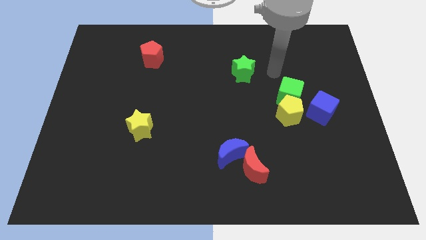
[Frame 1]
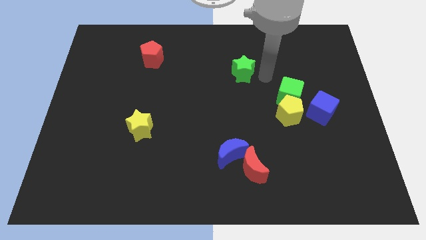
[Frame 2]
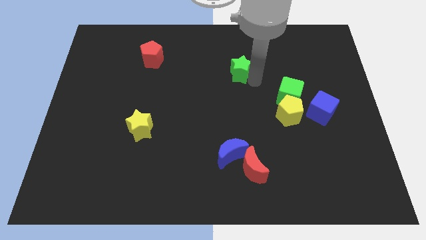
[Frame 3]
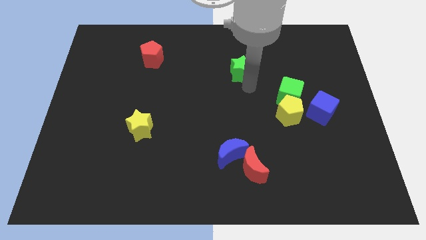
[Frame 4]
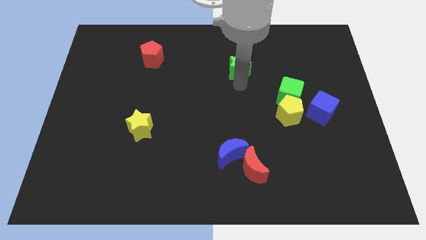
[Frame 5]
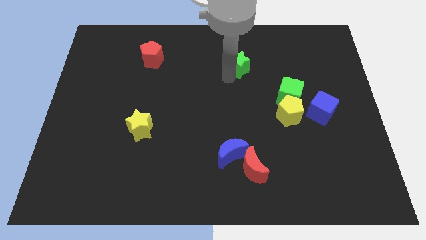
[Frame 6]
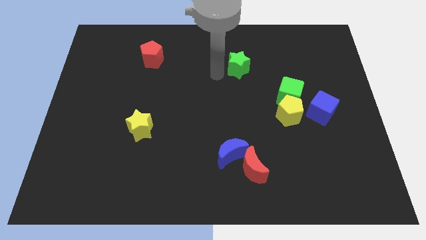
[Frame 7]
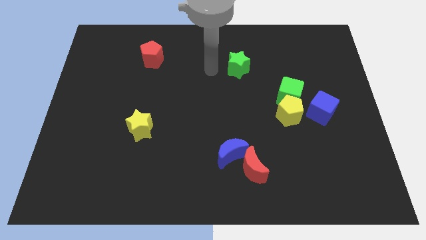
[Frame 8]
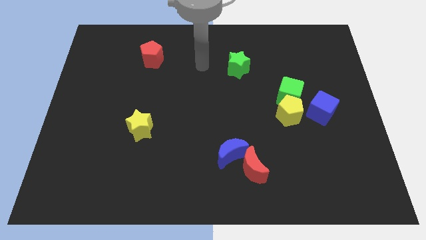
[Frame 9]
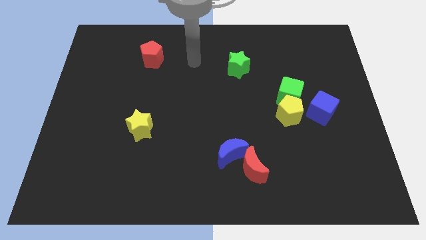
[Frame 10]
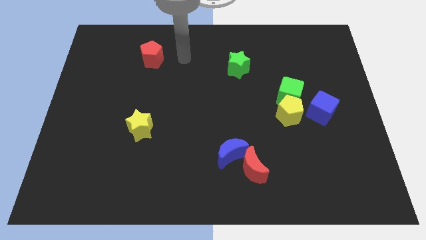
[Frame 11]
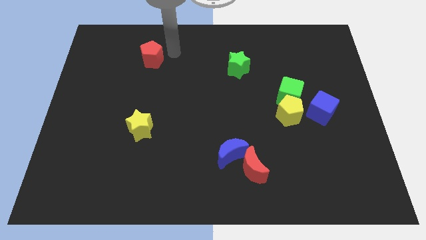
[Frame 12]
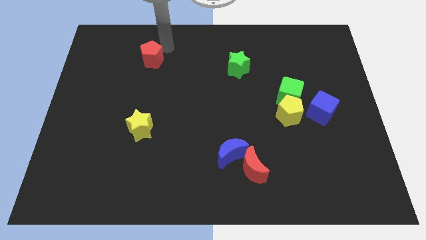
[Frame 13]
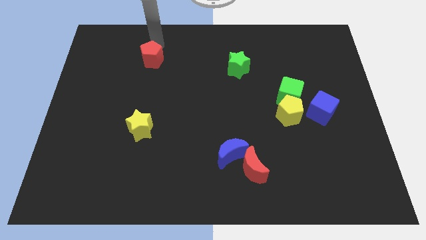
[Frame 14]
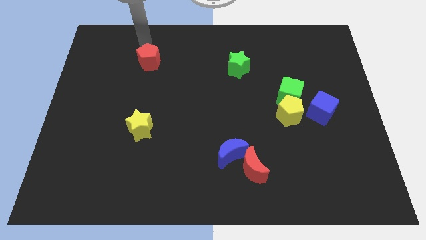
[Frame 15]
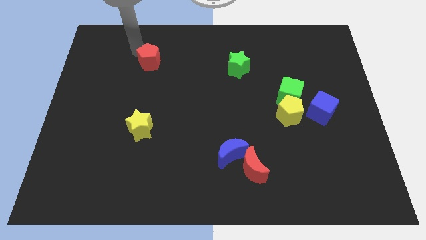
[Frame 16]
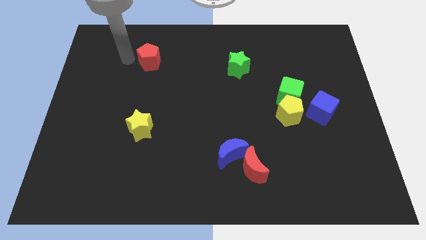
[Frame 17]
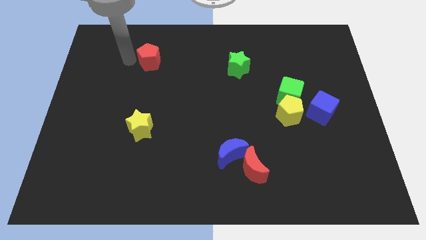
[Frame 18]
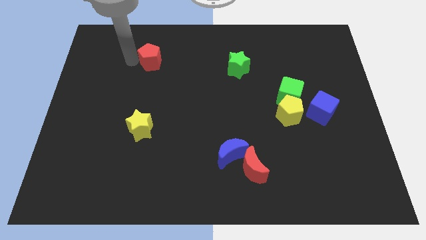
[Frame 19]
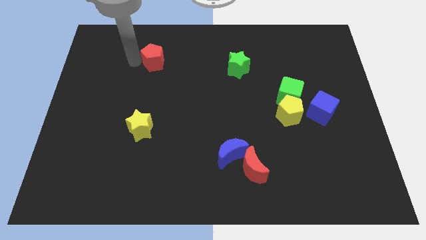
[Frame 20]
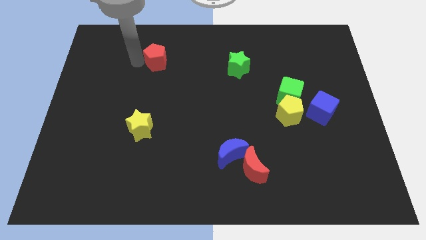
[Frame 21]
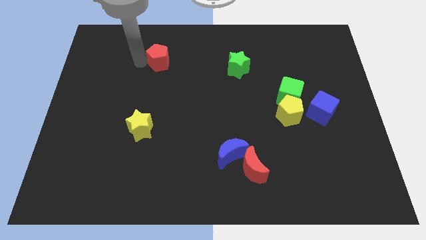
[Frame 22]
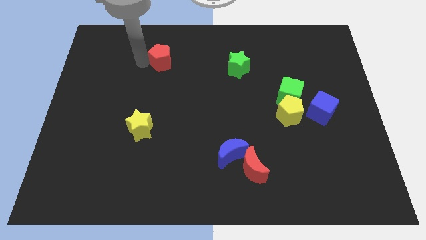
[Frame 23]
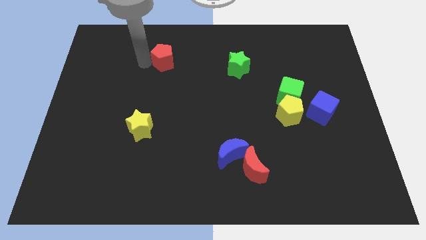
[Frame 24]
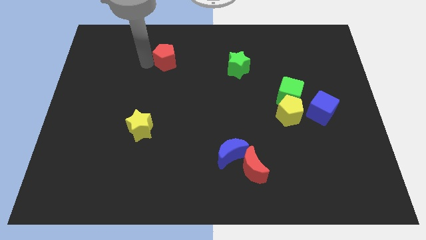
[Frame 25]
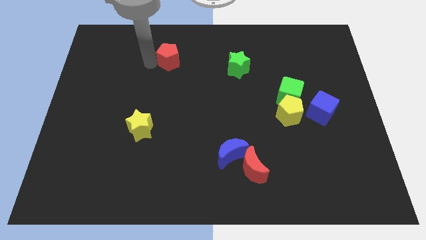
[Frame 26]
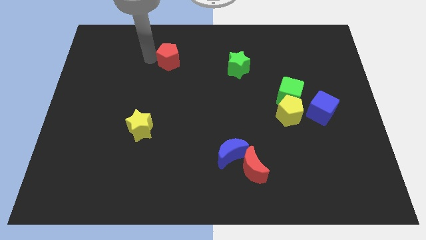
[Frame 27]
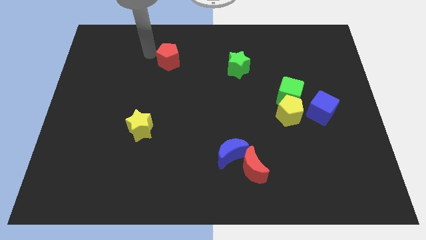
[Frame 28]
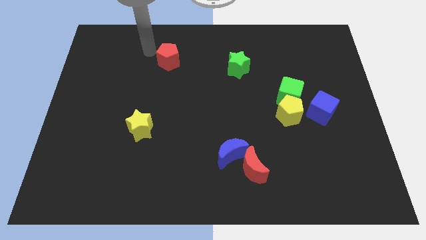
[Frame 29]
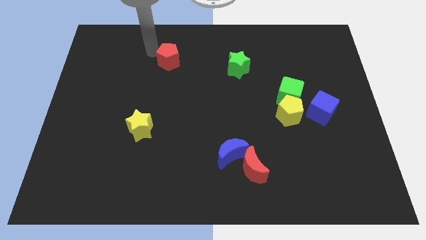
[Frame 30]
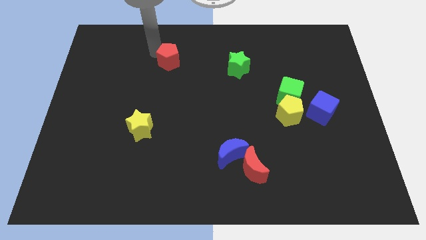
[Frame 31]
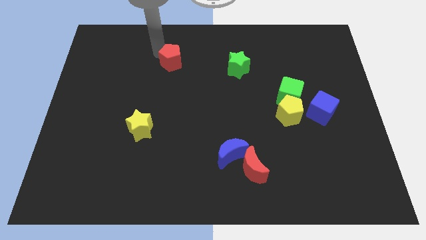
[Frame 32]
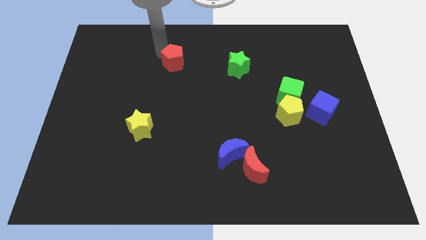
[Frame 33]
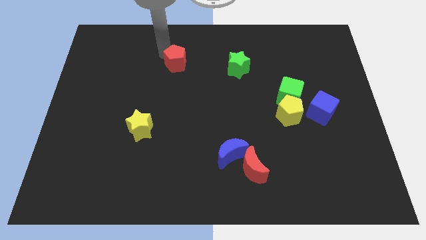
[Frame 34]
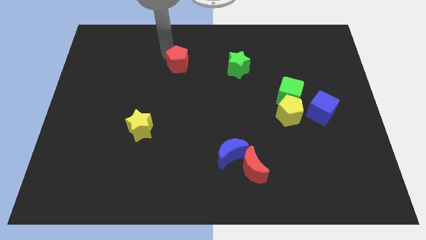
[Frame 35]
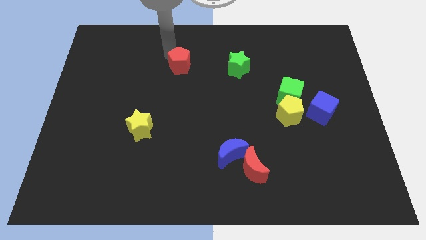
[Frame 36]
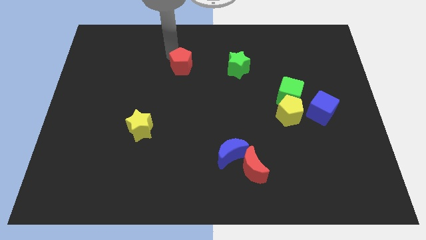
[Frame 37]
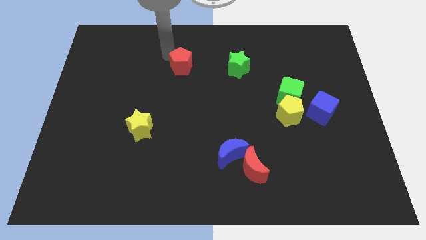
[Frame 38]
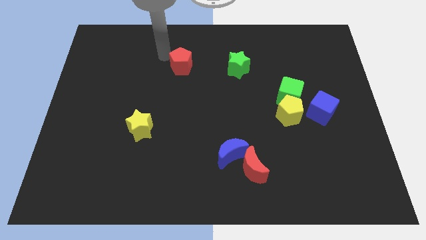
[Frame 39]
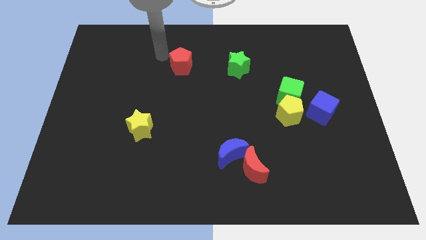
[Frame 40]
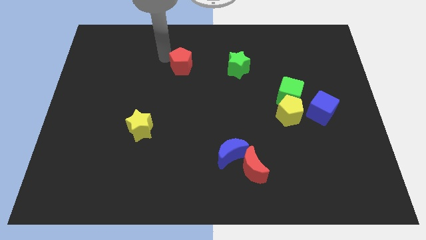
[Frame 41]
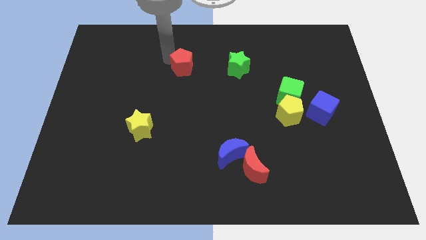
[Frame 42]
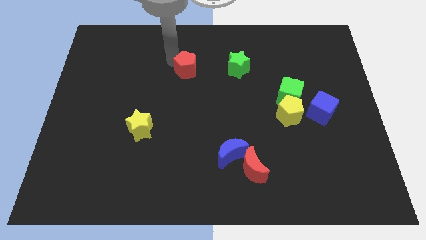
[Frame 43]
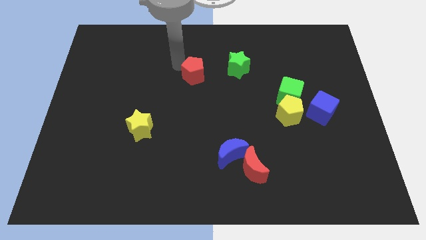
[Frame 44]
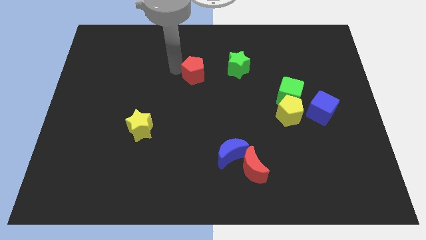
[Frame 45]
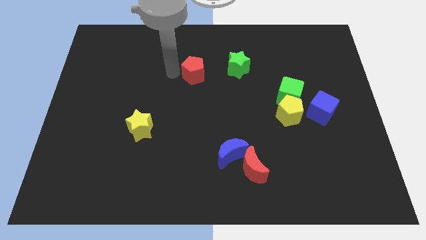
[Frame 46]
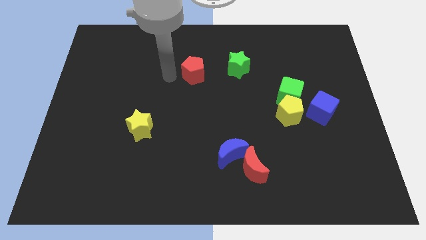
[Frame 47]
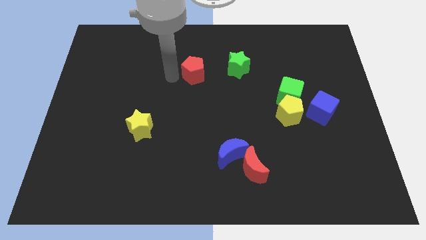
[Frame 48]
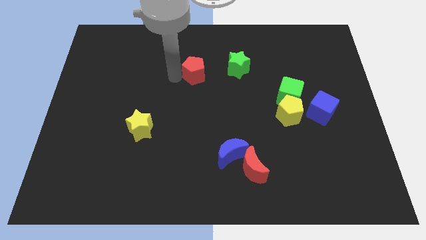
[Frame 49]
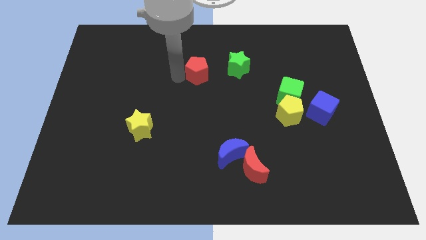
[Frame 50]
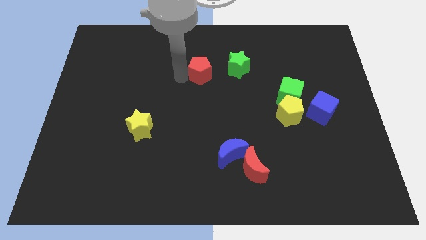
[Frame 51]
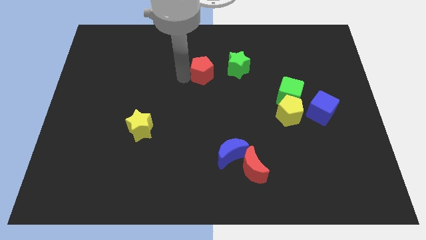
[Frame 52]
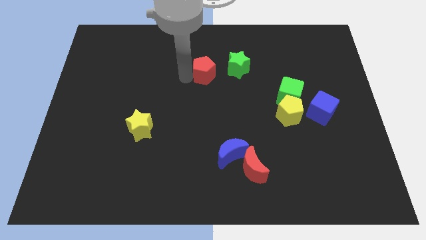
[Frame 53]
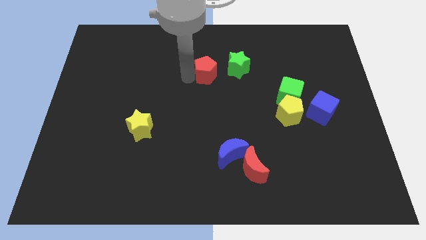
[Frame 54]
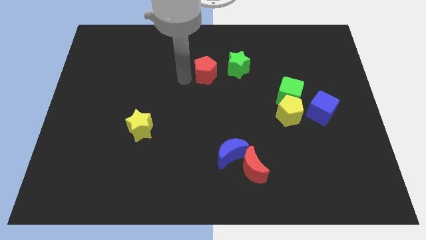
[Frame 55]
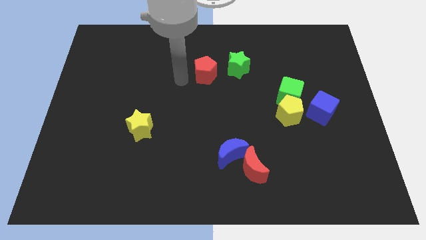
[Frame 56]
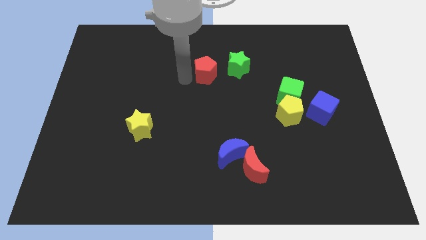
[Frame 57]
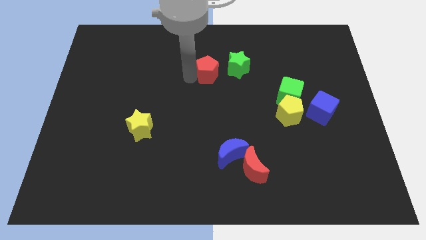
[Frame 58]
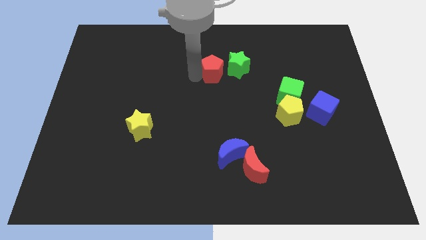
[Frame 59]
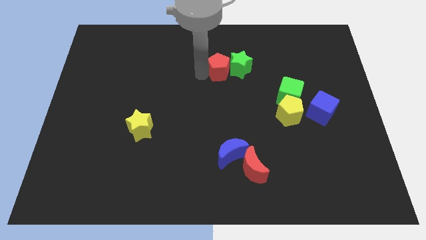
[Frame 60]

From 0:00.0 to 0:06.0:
move the red pentagon close to the green star

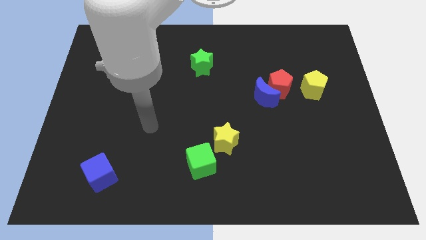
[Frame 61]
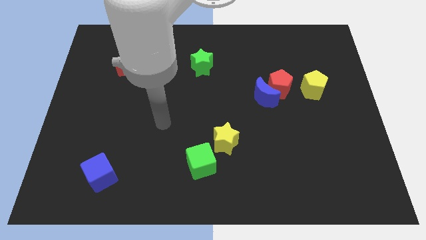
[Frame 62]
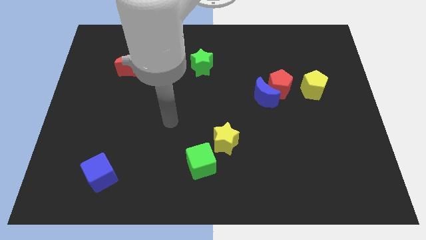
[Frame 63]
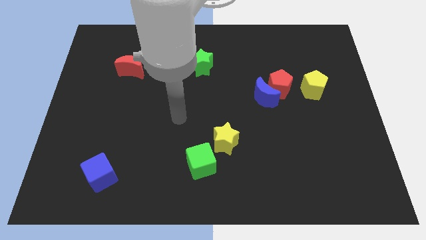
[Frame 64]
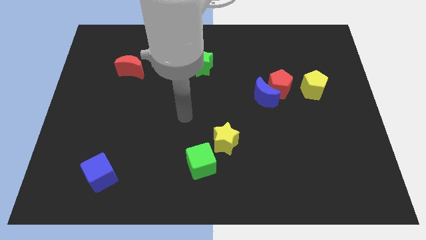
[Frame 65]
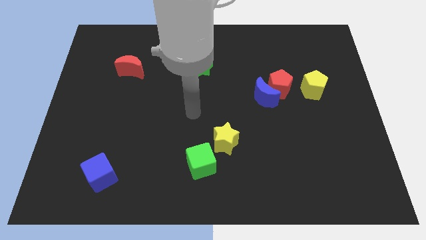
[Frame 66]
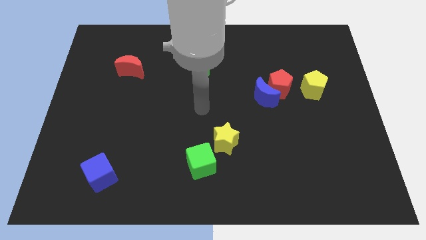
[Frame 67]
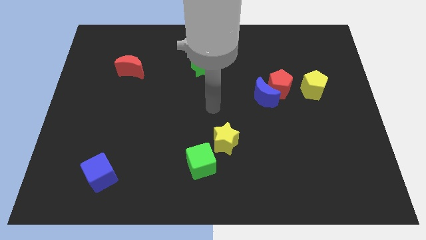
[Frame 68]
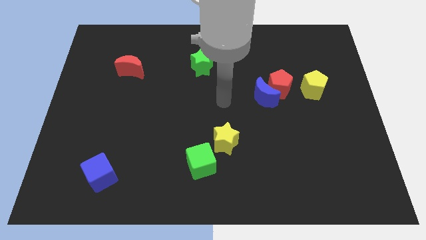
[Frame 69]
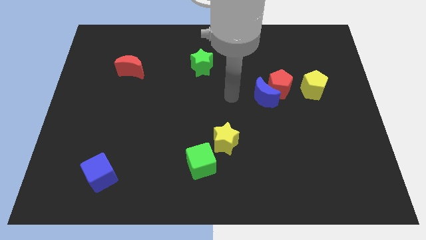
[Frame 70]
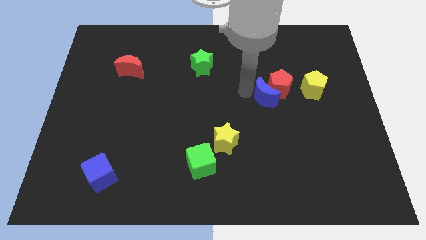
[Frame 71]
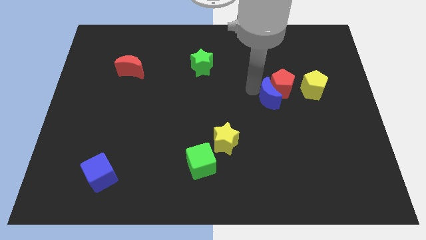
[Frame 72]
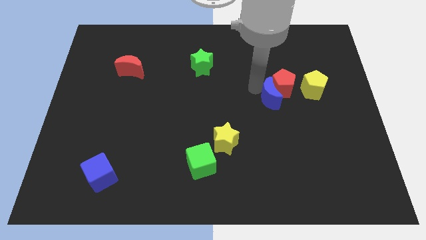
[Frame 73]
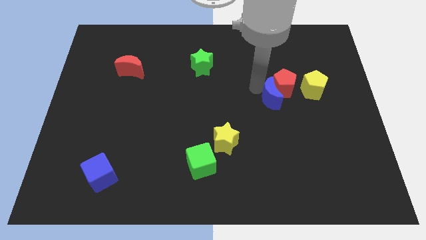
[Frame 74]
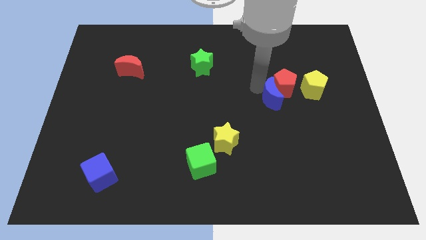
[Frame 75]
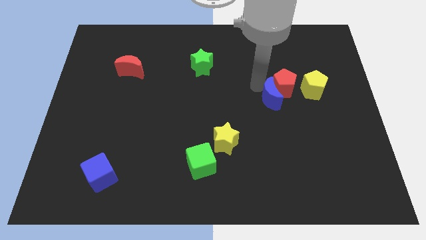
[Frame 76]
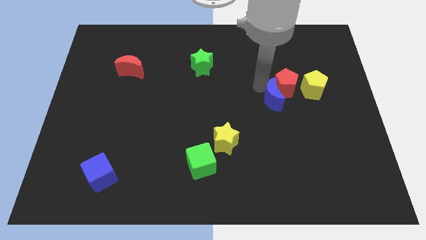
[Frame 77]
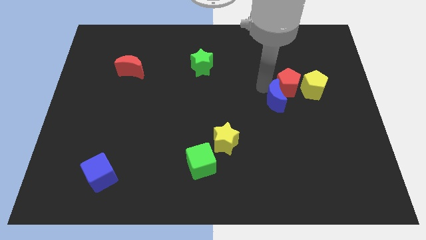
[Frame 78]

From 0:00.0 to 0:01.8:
push the red pentagon close to the yellow pentagon

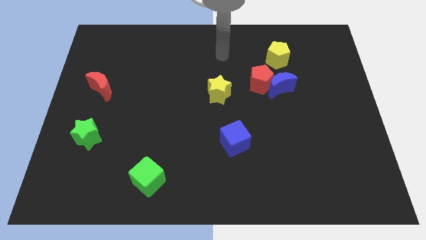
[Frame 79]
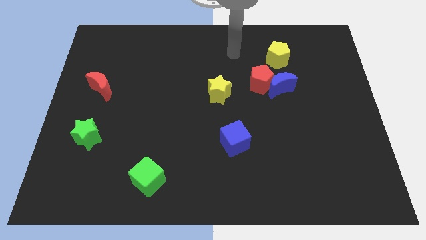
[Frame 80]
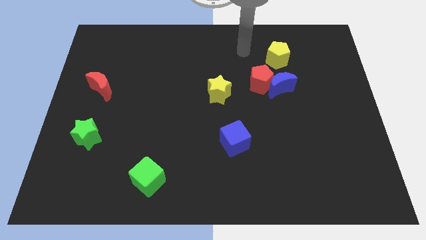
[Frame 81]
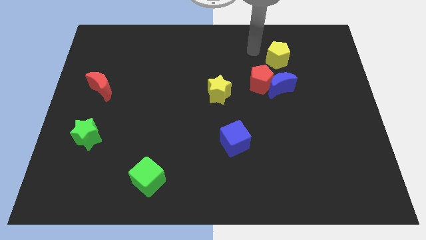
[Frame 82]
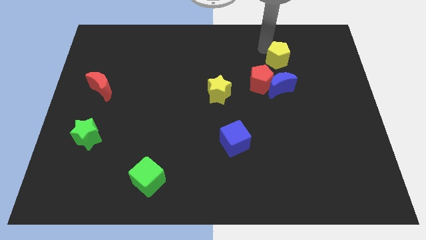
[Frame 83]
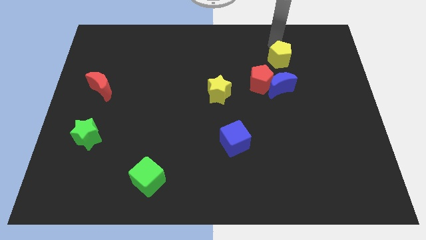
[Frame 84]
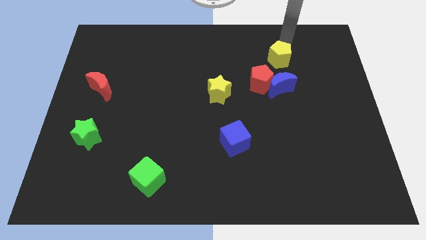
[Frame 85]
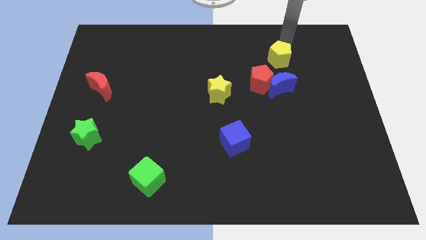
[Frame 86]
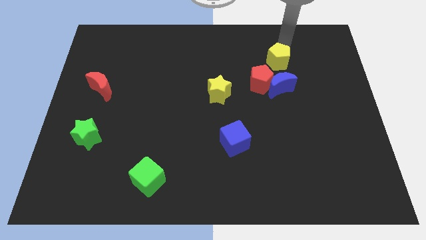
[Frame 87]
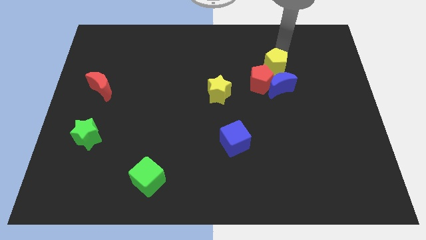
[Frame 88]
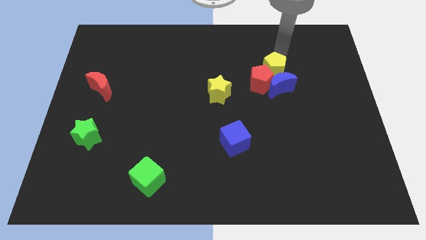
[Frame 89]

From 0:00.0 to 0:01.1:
move the yellow pentagon next to the red pentagon
